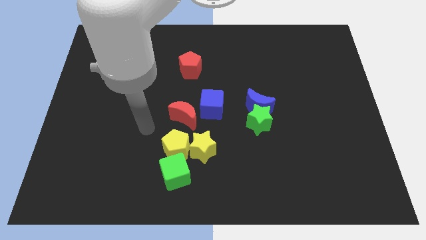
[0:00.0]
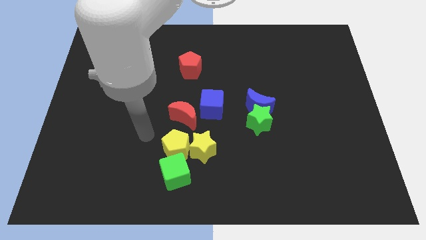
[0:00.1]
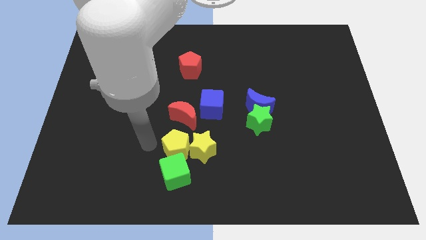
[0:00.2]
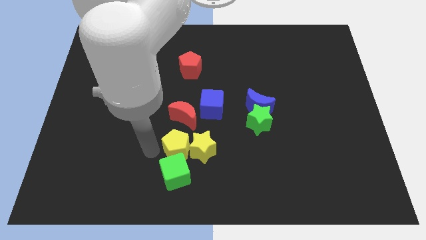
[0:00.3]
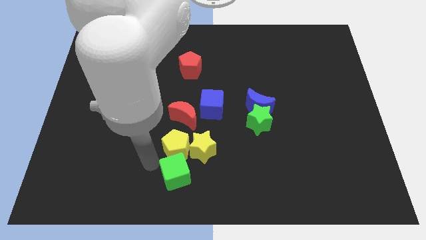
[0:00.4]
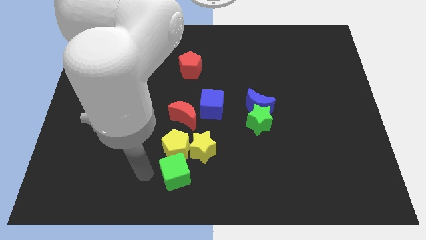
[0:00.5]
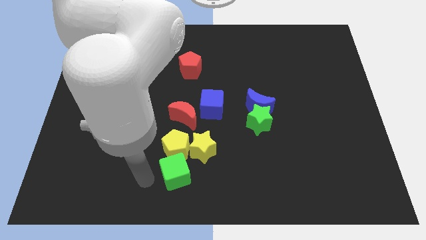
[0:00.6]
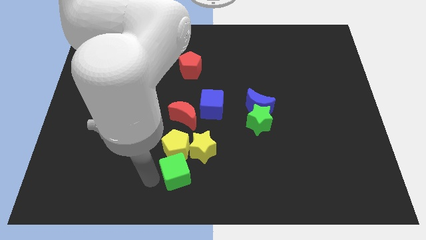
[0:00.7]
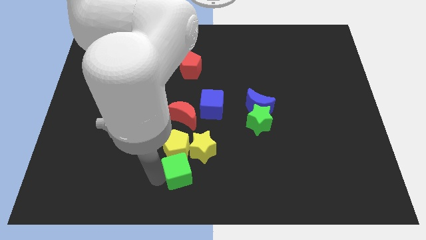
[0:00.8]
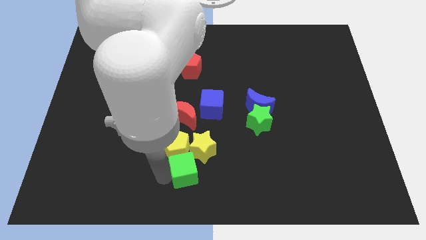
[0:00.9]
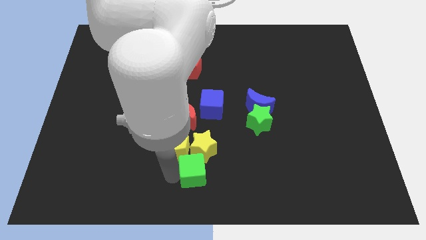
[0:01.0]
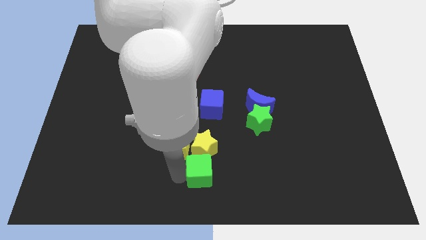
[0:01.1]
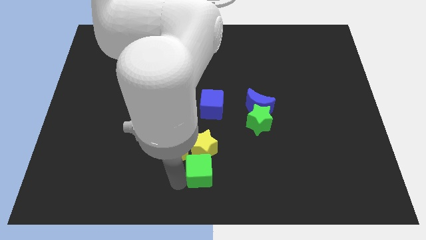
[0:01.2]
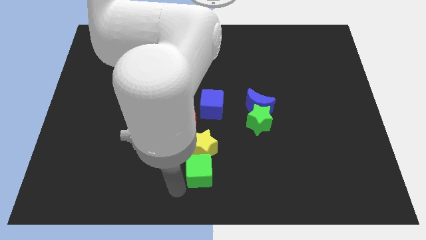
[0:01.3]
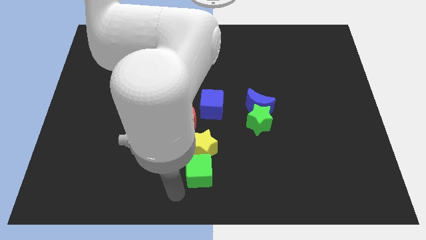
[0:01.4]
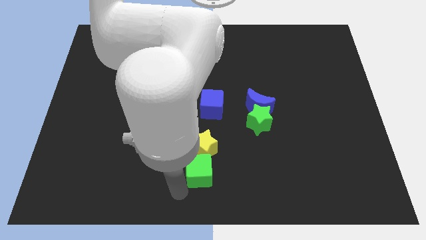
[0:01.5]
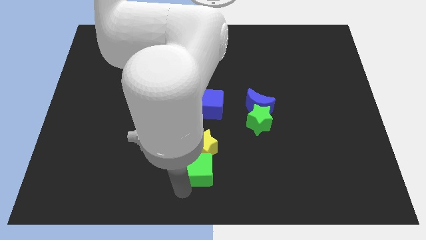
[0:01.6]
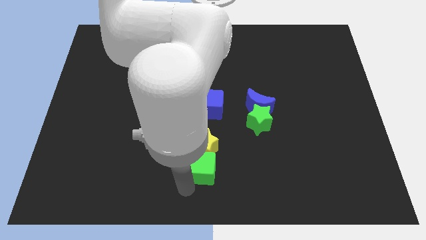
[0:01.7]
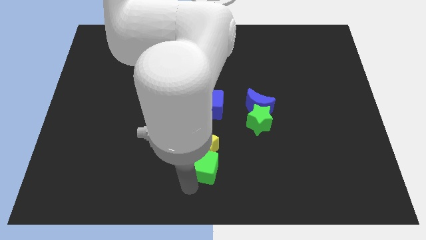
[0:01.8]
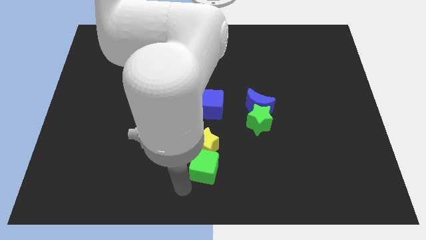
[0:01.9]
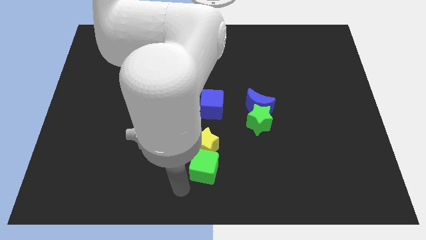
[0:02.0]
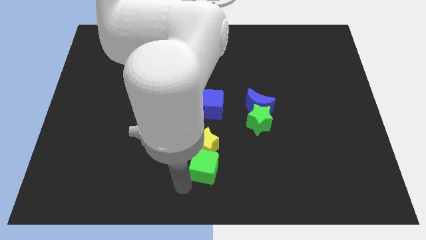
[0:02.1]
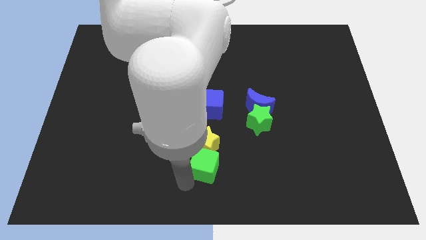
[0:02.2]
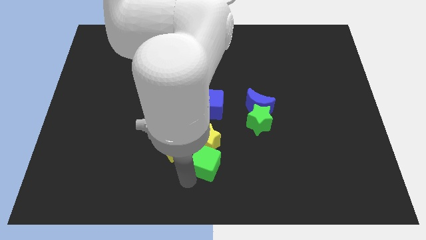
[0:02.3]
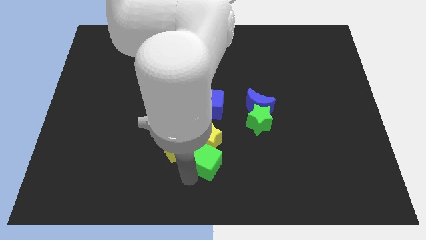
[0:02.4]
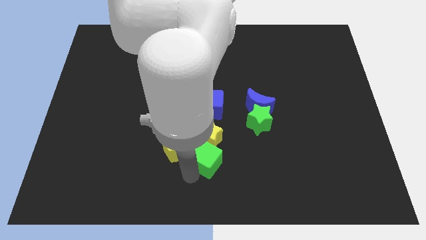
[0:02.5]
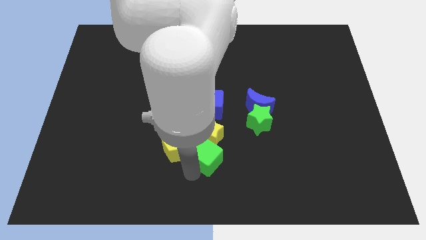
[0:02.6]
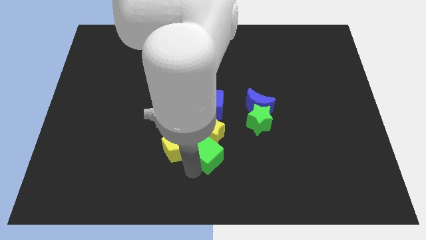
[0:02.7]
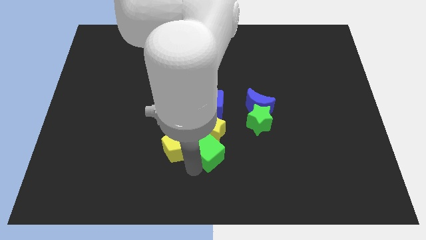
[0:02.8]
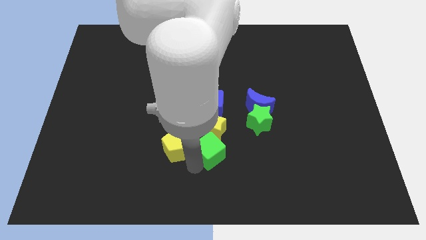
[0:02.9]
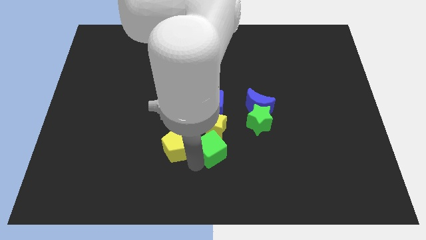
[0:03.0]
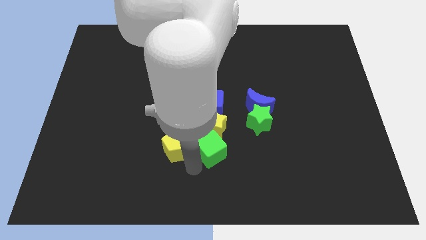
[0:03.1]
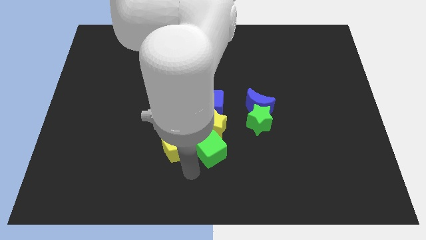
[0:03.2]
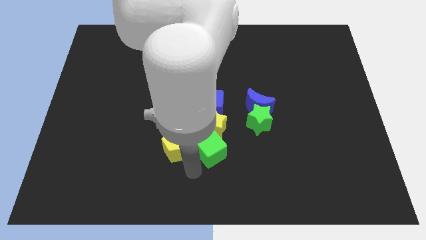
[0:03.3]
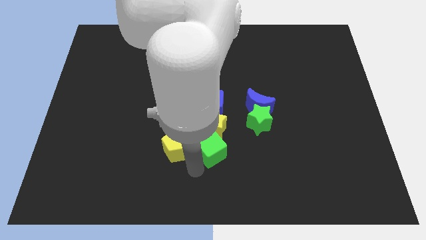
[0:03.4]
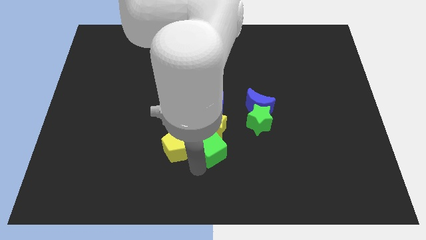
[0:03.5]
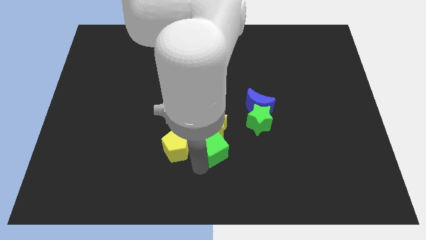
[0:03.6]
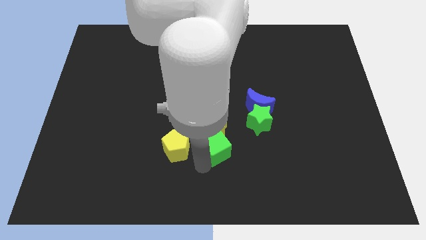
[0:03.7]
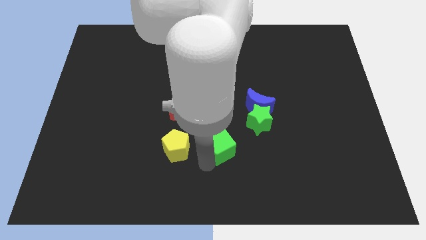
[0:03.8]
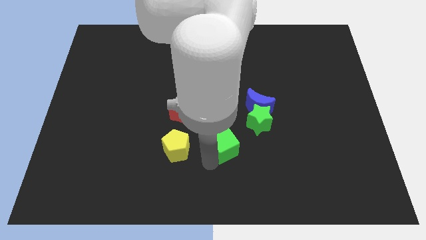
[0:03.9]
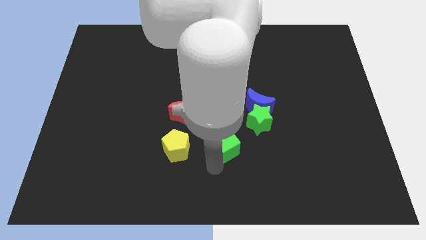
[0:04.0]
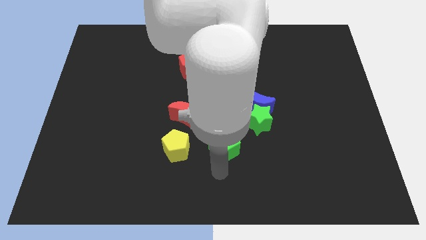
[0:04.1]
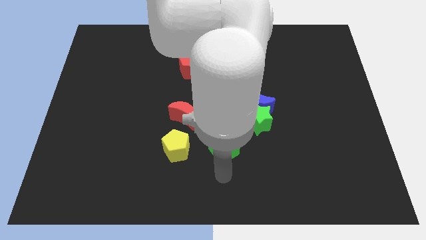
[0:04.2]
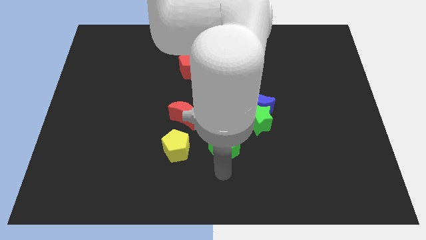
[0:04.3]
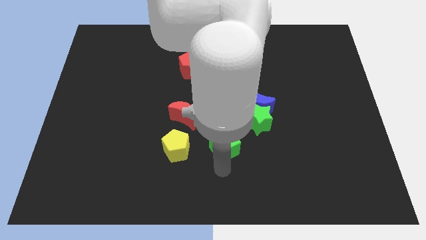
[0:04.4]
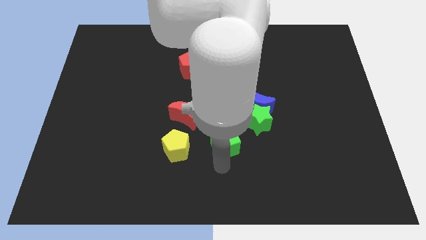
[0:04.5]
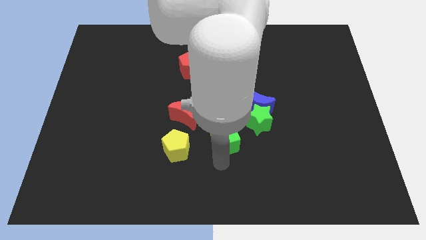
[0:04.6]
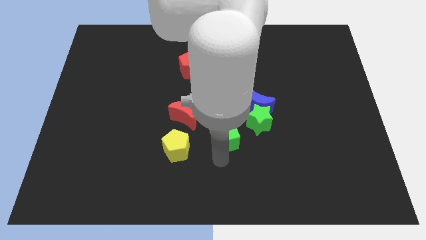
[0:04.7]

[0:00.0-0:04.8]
move the green cube left of the green star

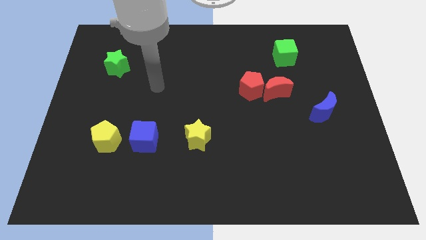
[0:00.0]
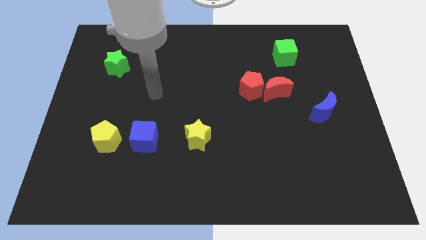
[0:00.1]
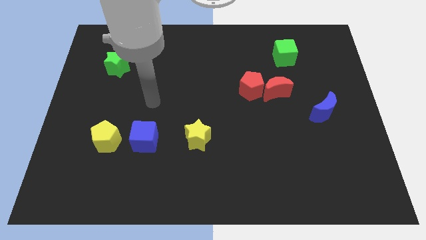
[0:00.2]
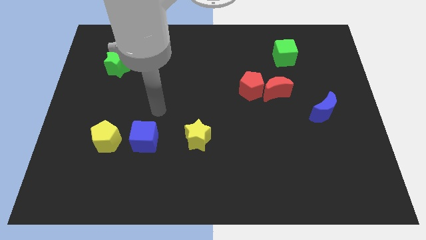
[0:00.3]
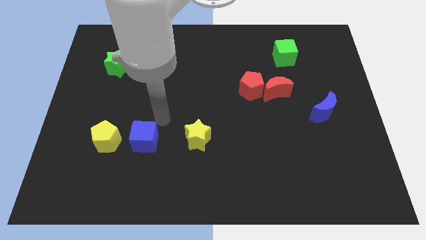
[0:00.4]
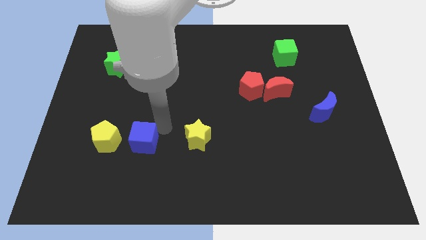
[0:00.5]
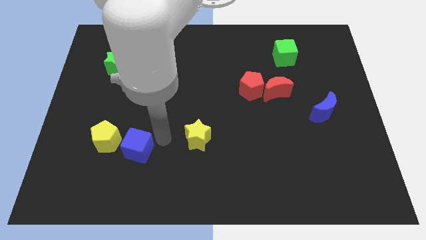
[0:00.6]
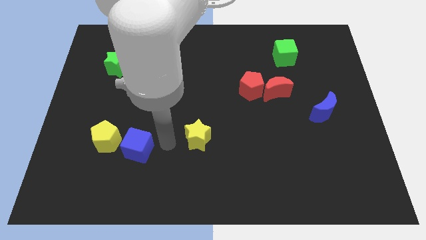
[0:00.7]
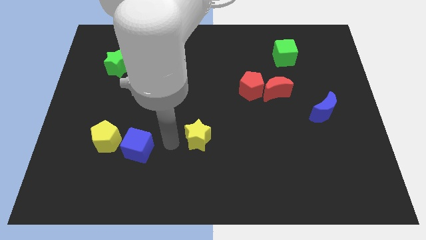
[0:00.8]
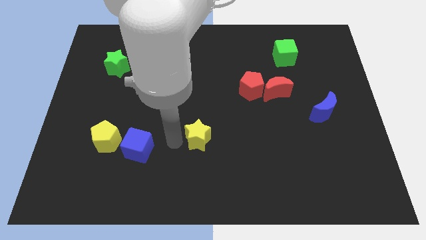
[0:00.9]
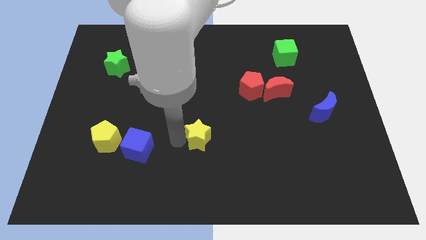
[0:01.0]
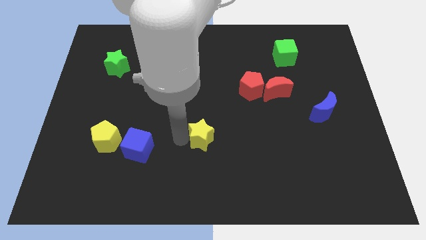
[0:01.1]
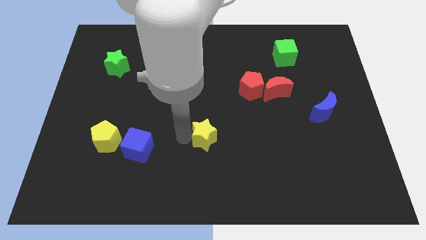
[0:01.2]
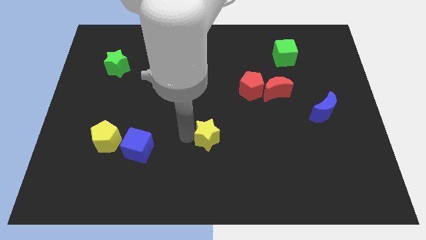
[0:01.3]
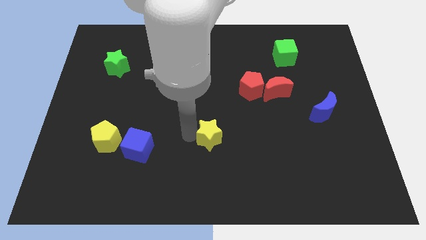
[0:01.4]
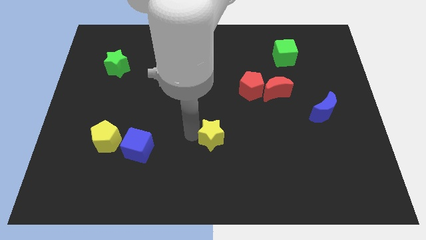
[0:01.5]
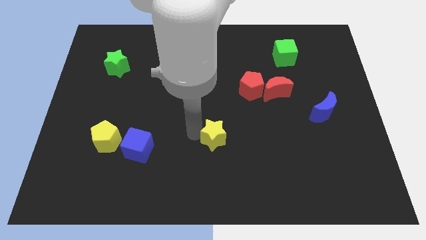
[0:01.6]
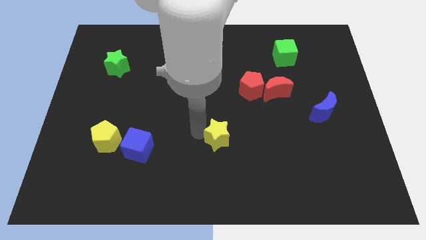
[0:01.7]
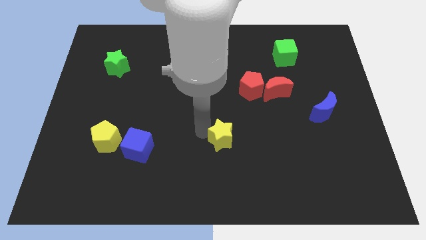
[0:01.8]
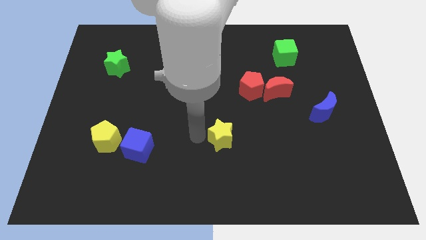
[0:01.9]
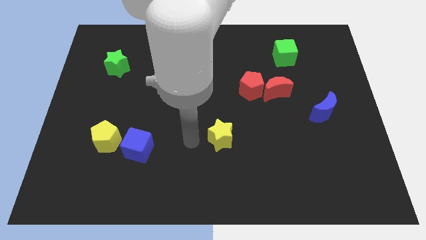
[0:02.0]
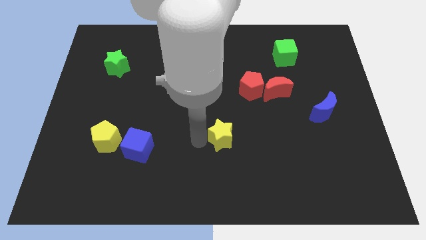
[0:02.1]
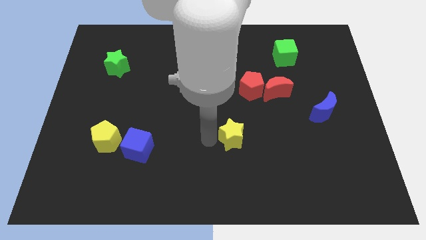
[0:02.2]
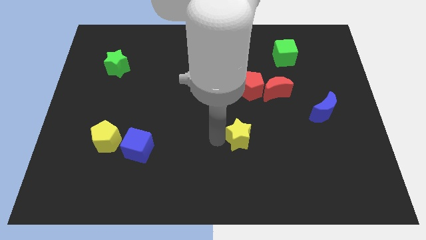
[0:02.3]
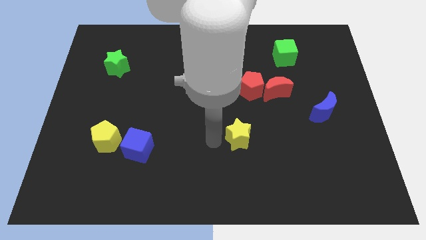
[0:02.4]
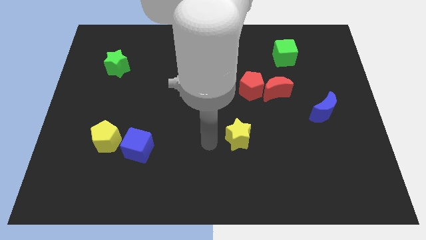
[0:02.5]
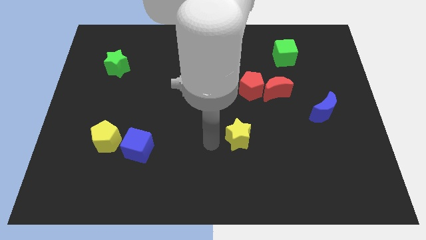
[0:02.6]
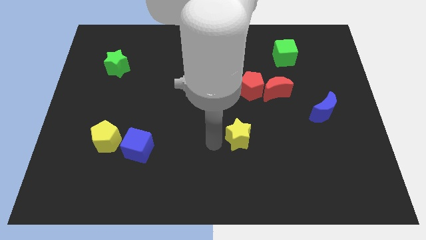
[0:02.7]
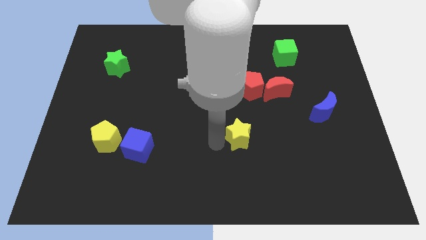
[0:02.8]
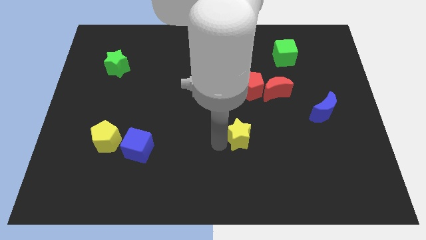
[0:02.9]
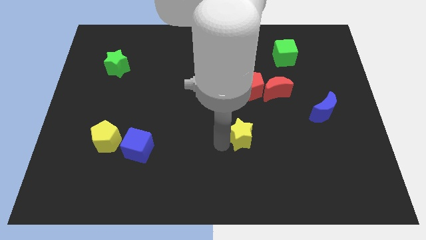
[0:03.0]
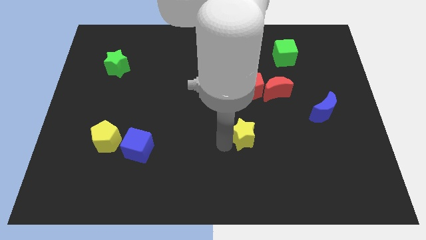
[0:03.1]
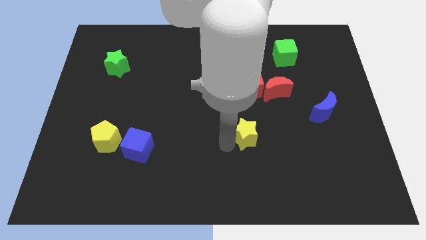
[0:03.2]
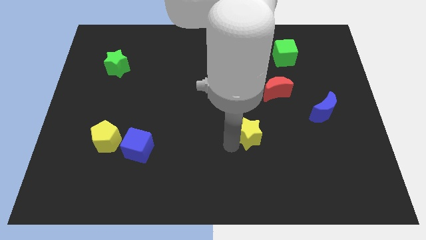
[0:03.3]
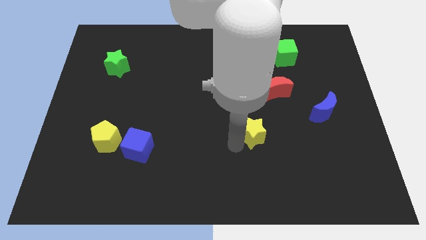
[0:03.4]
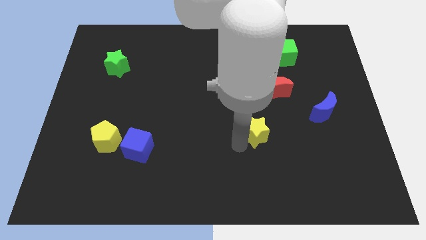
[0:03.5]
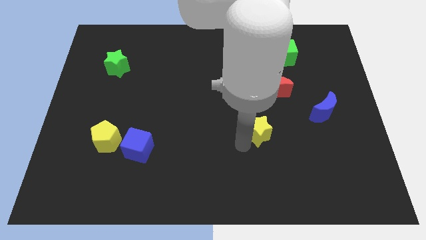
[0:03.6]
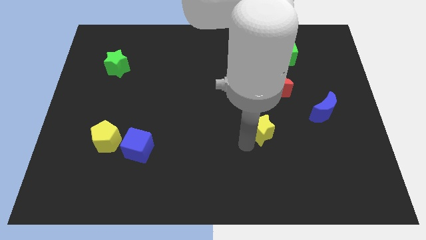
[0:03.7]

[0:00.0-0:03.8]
put the yellow star to the bottom side of the red moon
